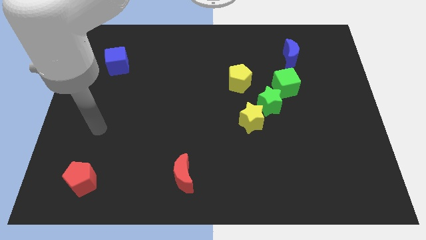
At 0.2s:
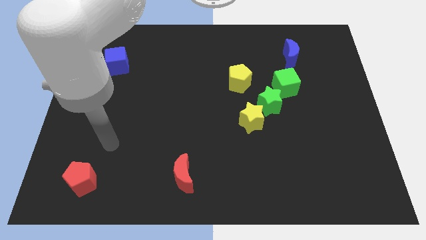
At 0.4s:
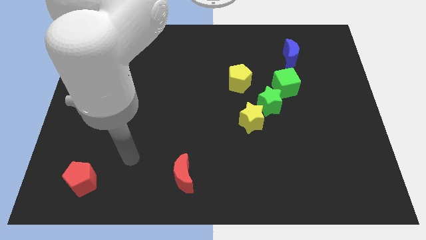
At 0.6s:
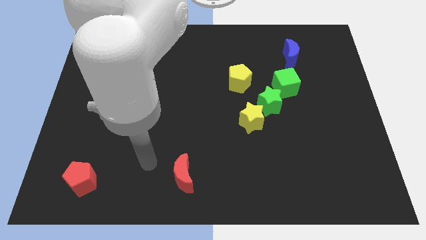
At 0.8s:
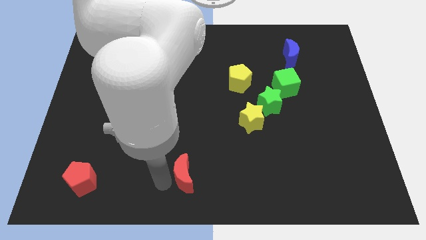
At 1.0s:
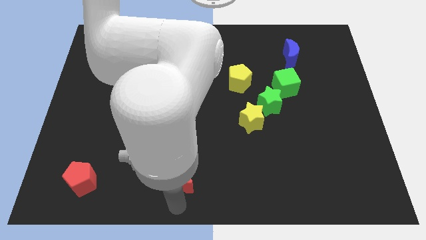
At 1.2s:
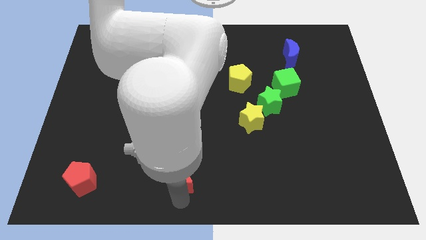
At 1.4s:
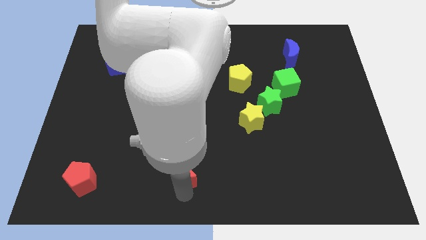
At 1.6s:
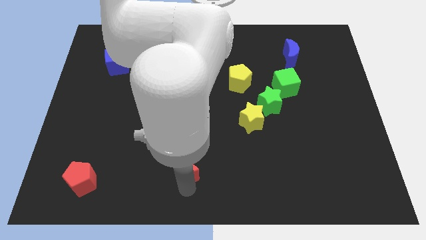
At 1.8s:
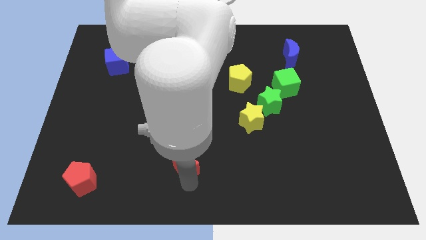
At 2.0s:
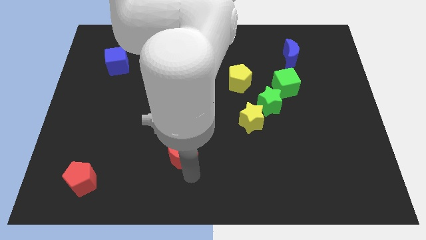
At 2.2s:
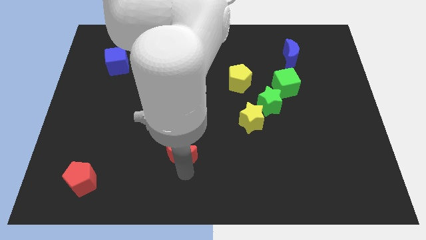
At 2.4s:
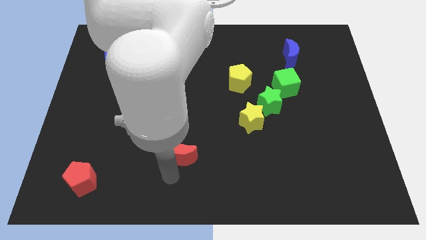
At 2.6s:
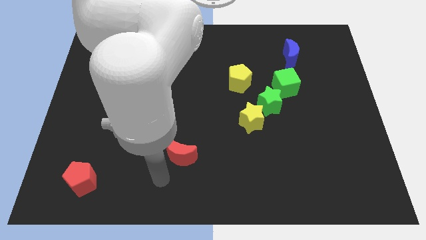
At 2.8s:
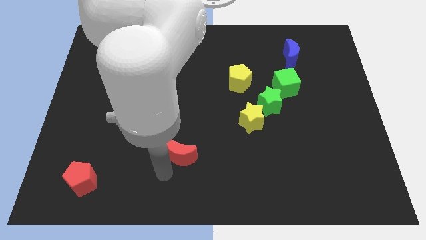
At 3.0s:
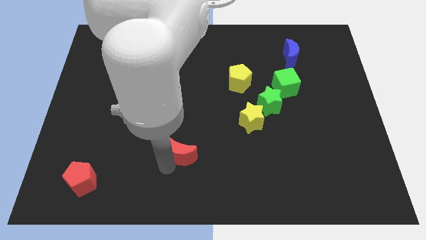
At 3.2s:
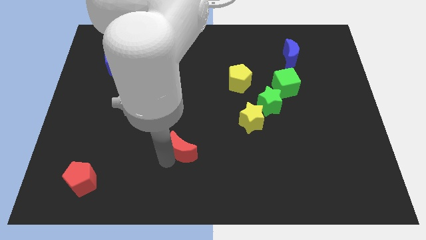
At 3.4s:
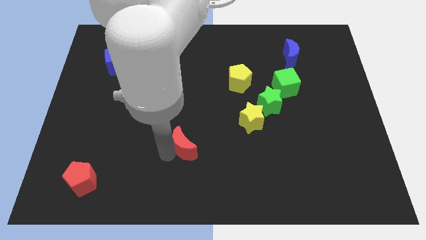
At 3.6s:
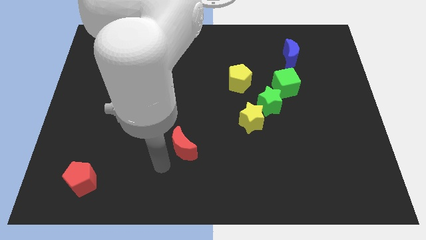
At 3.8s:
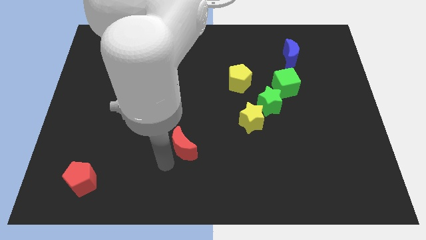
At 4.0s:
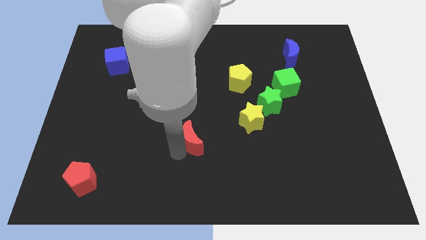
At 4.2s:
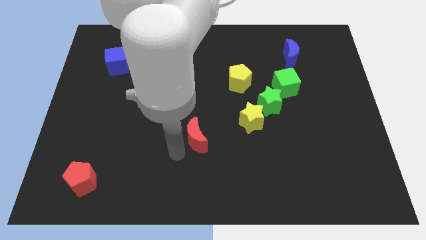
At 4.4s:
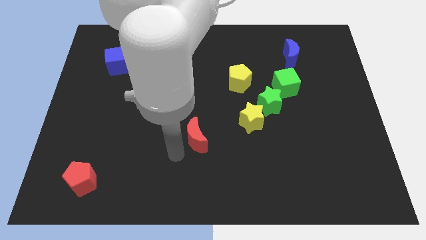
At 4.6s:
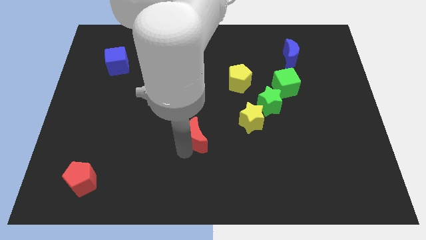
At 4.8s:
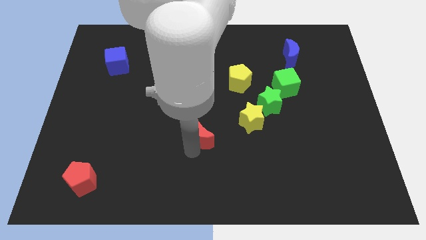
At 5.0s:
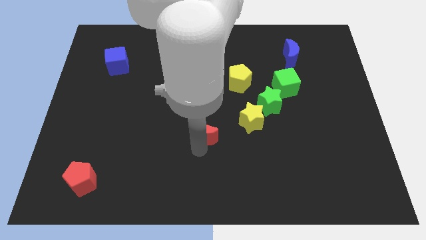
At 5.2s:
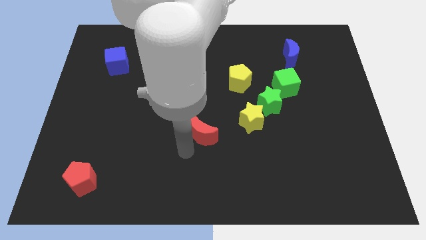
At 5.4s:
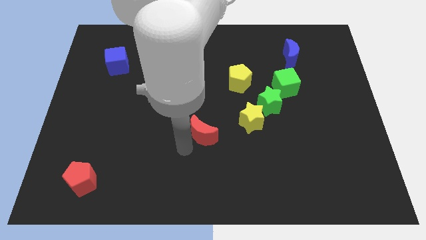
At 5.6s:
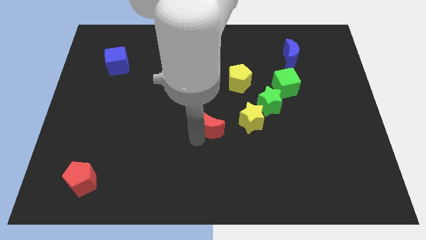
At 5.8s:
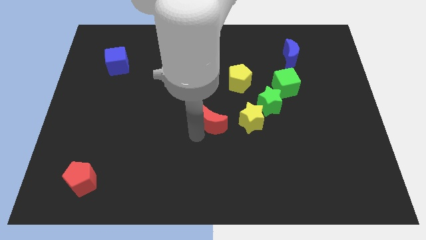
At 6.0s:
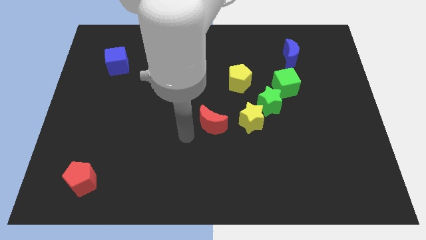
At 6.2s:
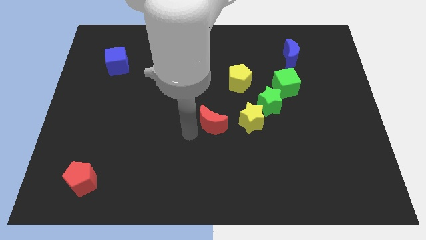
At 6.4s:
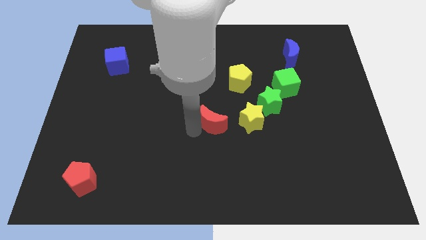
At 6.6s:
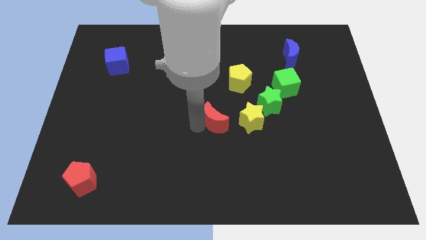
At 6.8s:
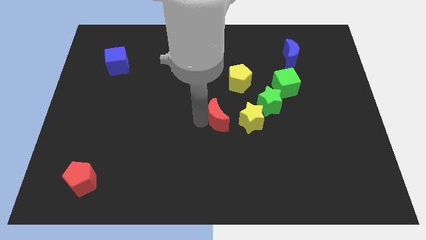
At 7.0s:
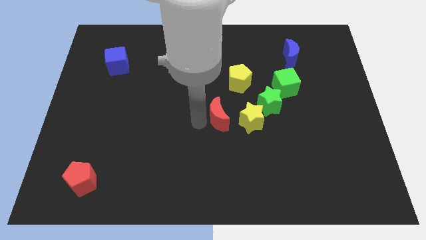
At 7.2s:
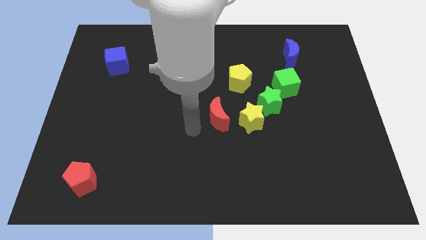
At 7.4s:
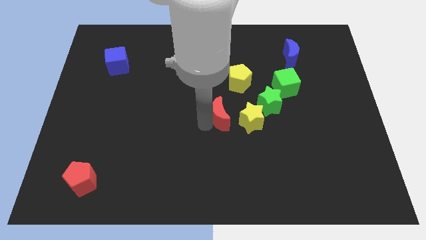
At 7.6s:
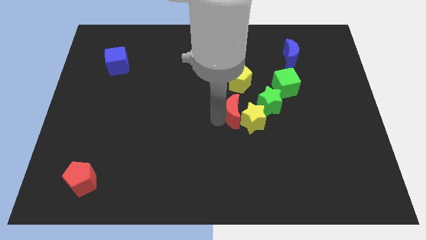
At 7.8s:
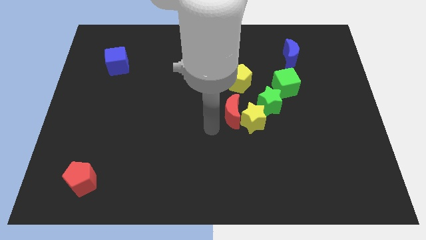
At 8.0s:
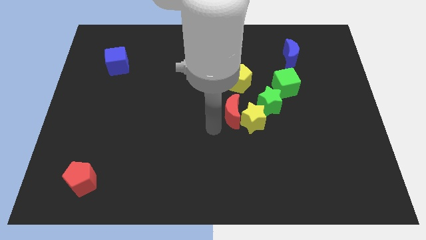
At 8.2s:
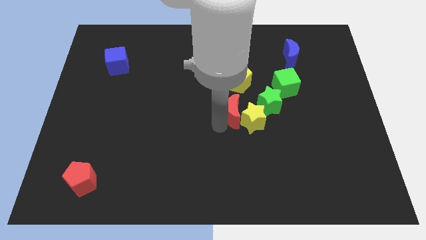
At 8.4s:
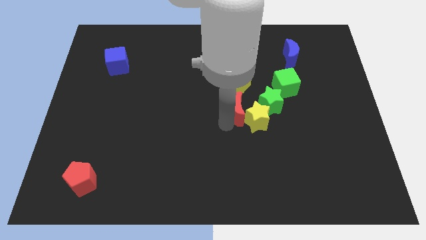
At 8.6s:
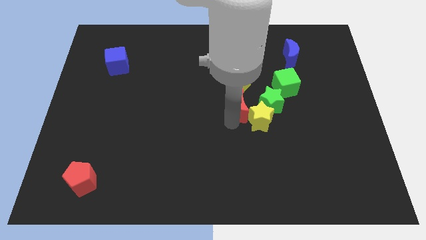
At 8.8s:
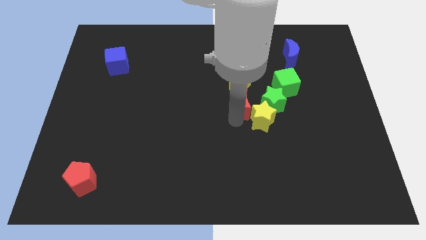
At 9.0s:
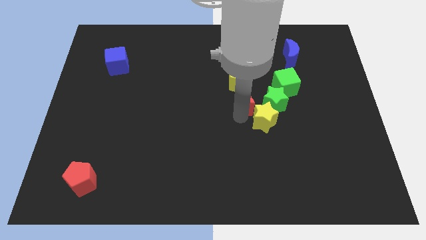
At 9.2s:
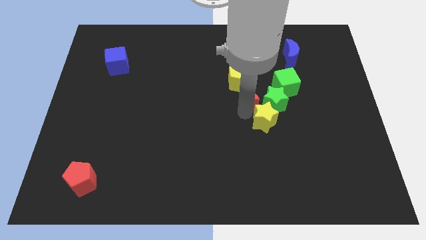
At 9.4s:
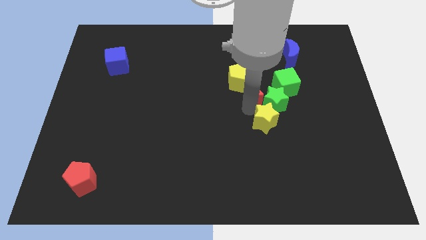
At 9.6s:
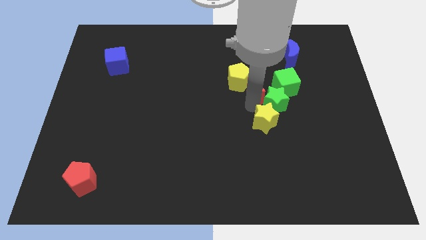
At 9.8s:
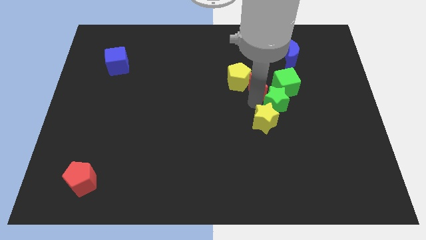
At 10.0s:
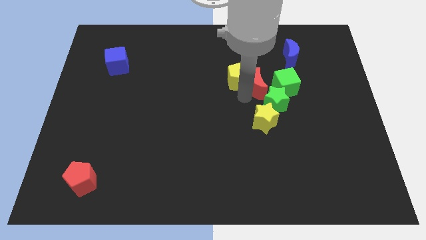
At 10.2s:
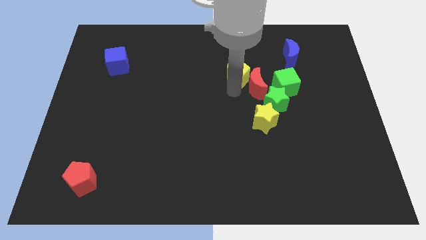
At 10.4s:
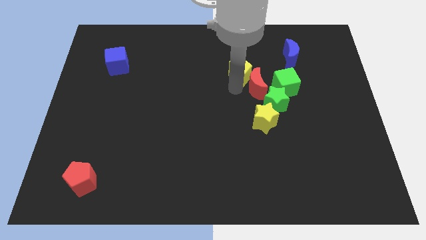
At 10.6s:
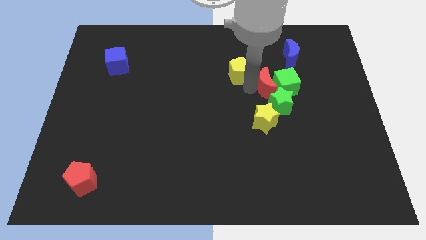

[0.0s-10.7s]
put the red moon close to the green cube

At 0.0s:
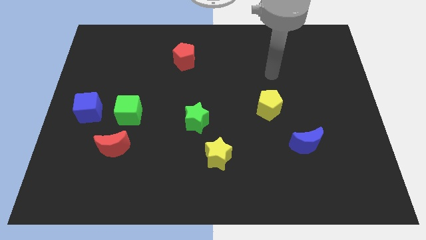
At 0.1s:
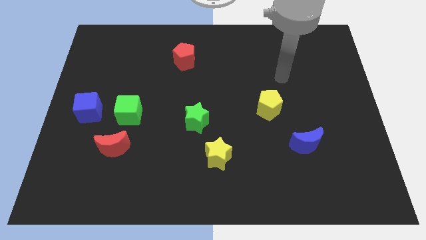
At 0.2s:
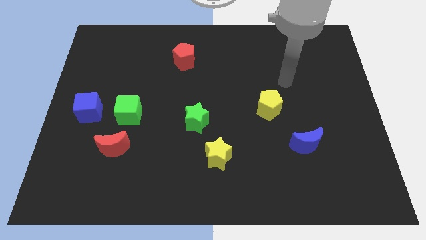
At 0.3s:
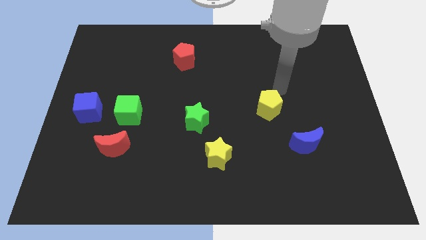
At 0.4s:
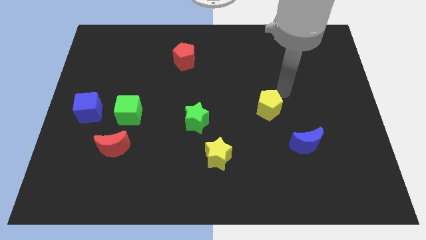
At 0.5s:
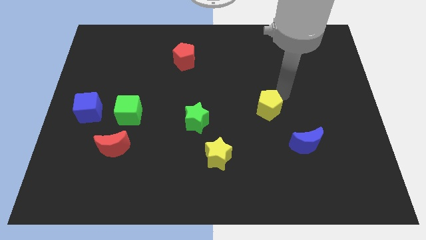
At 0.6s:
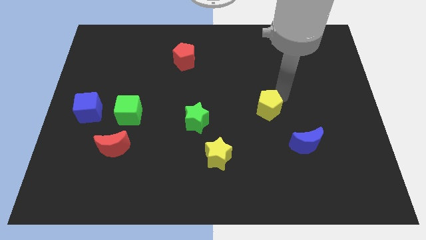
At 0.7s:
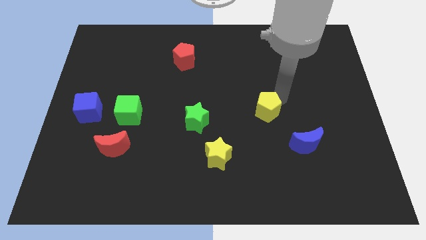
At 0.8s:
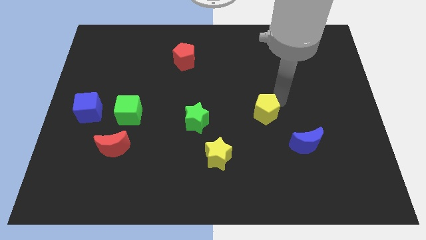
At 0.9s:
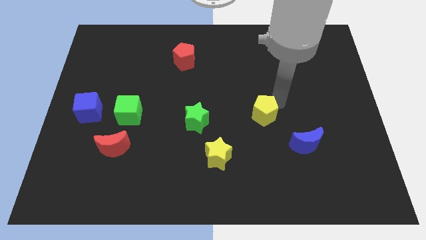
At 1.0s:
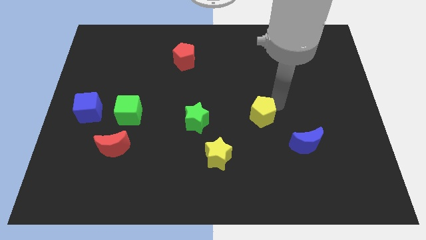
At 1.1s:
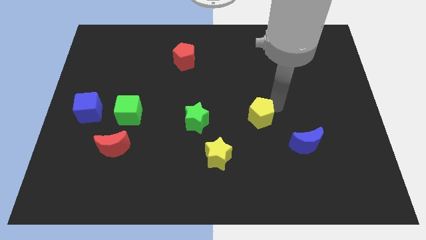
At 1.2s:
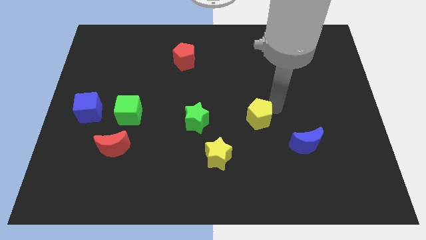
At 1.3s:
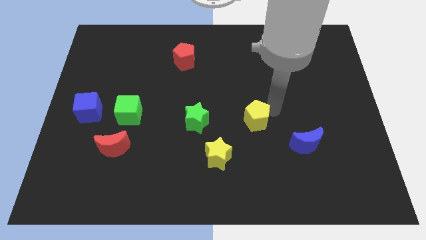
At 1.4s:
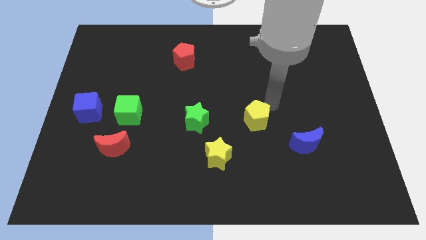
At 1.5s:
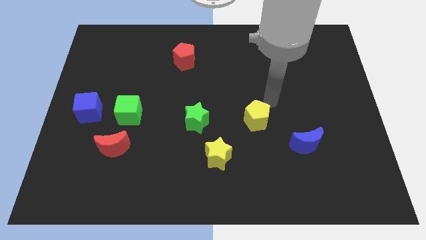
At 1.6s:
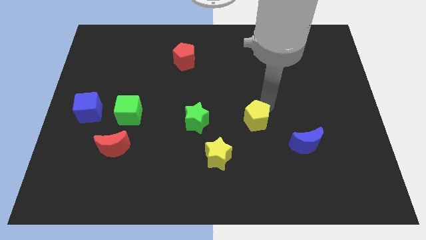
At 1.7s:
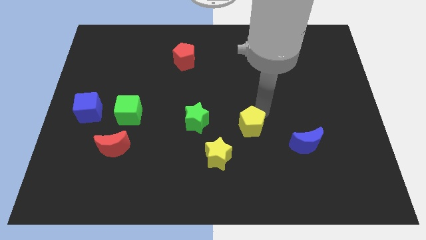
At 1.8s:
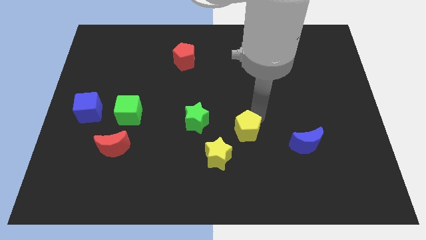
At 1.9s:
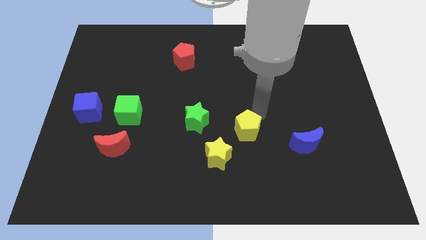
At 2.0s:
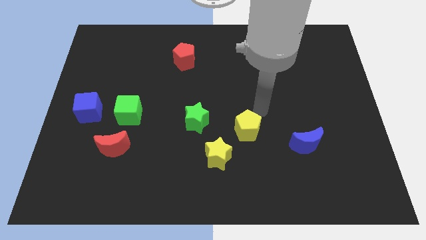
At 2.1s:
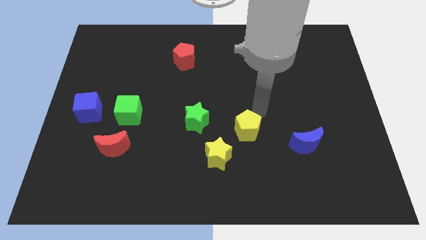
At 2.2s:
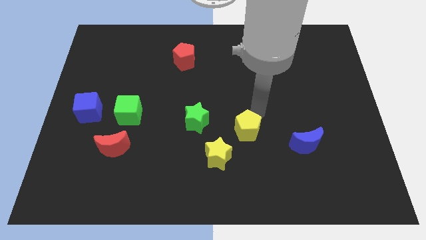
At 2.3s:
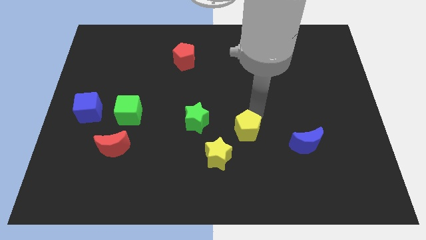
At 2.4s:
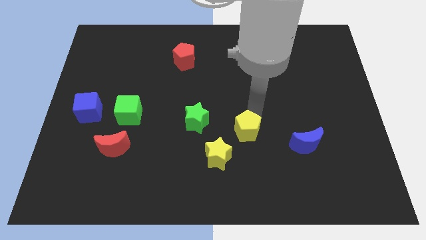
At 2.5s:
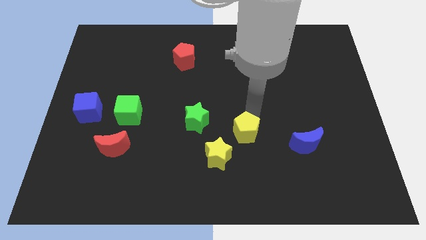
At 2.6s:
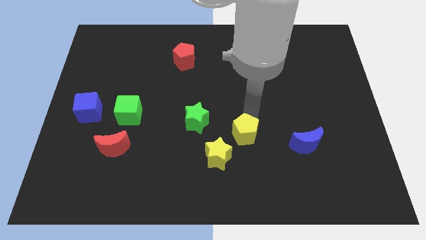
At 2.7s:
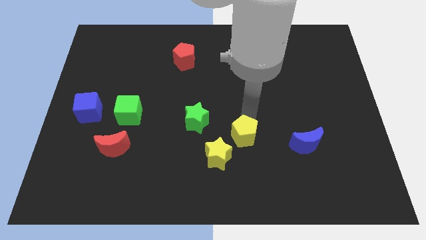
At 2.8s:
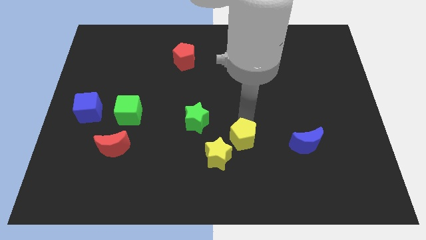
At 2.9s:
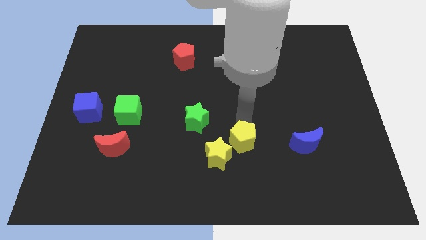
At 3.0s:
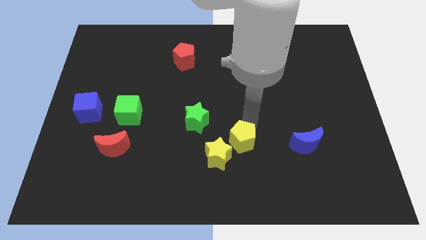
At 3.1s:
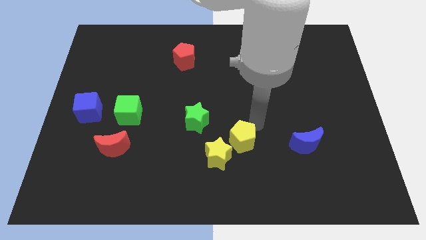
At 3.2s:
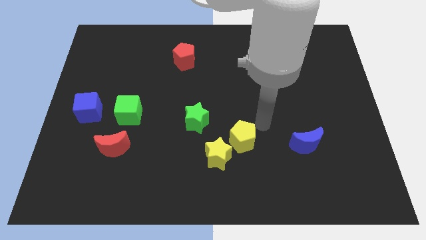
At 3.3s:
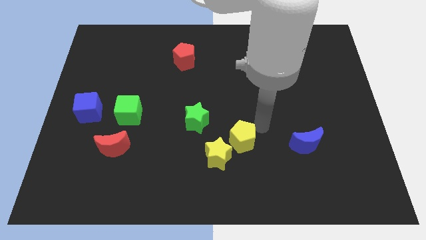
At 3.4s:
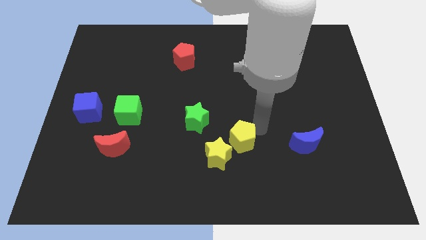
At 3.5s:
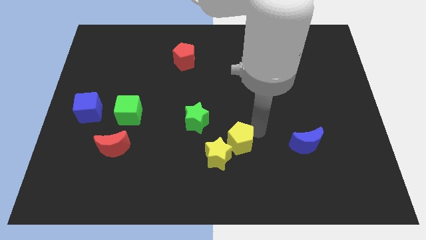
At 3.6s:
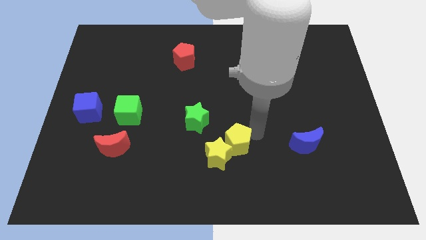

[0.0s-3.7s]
put the yellow pentagon close to the yellow star
